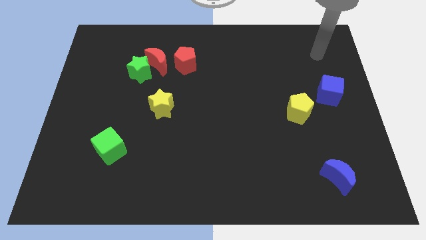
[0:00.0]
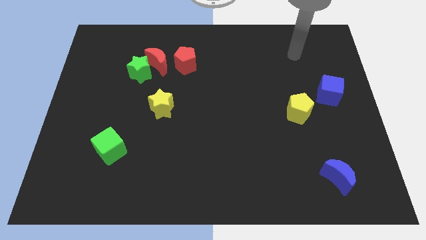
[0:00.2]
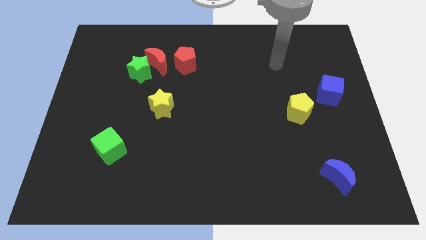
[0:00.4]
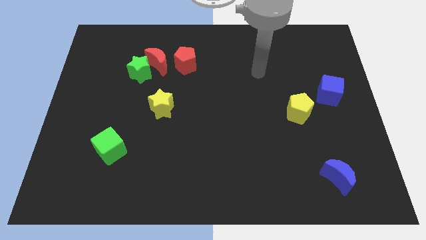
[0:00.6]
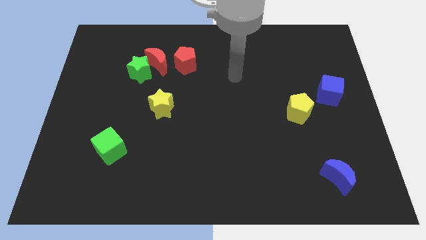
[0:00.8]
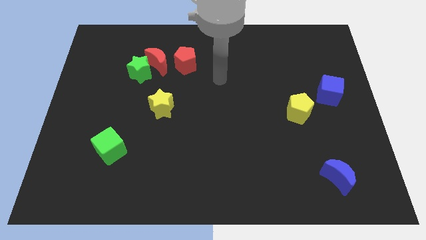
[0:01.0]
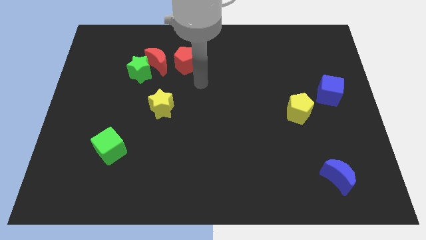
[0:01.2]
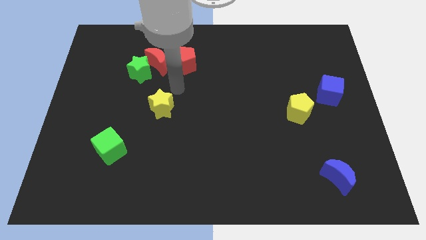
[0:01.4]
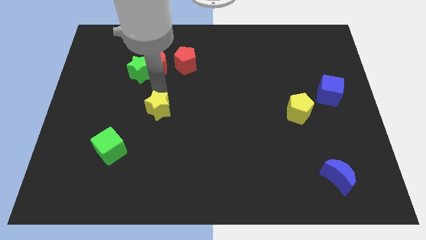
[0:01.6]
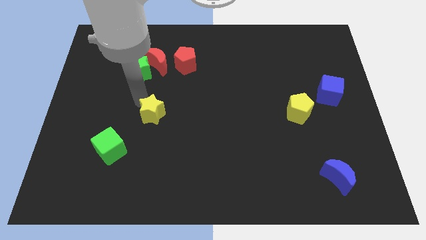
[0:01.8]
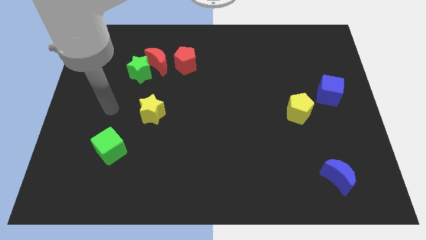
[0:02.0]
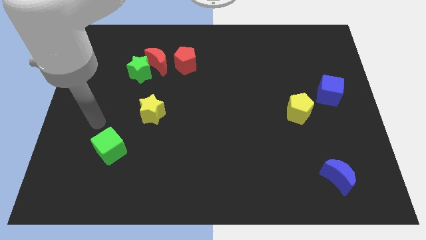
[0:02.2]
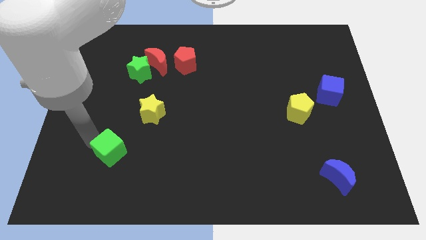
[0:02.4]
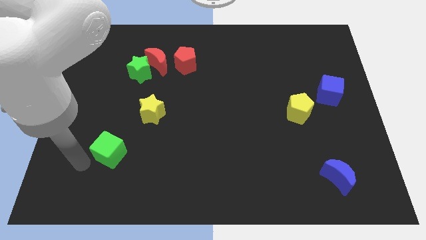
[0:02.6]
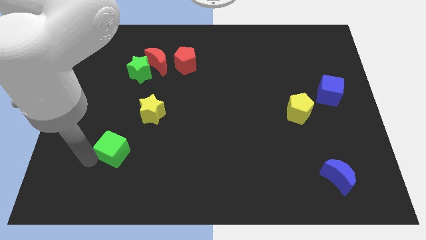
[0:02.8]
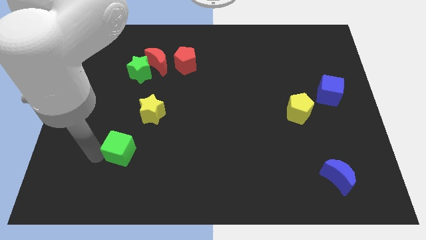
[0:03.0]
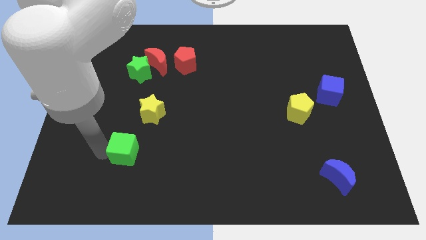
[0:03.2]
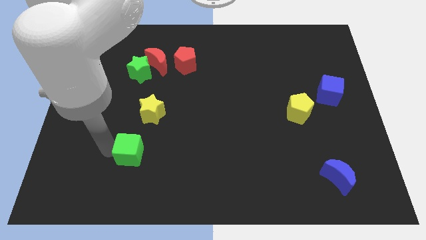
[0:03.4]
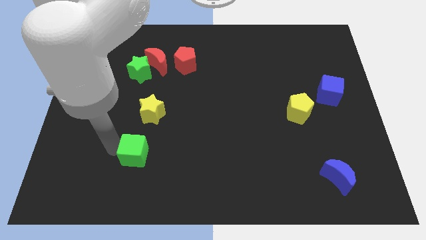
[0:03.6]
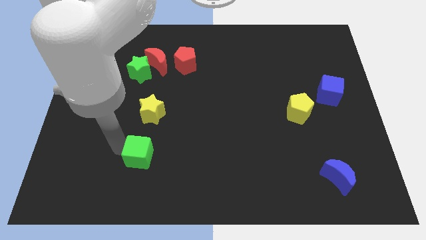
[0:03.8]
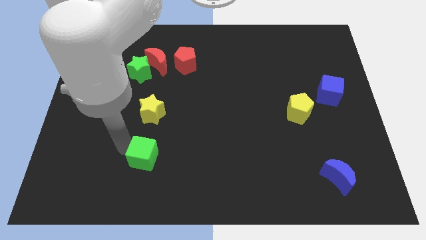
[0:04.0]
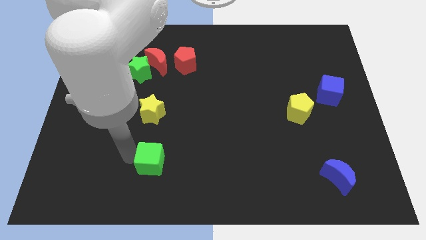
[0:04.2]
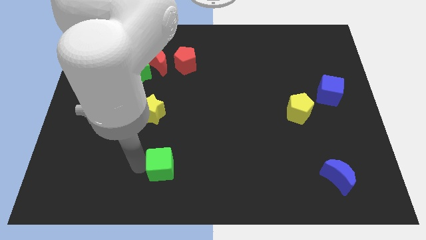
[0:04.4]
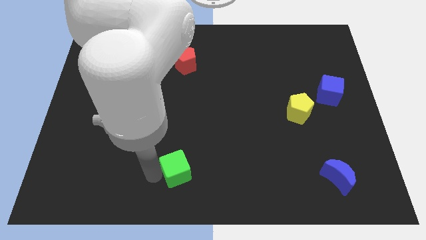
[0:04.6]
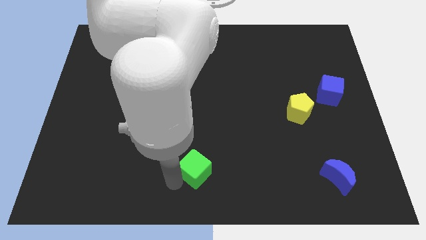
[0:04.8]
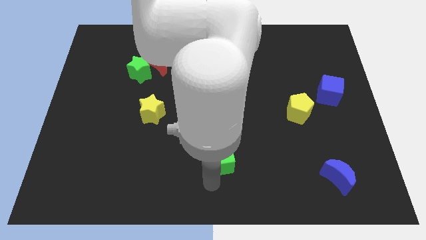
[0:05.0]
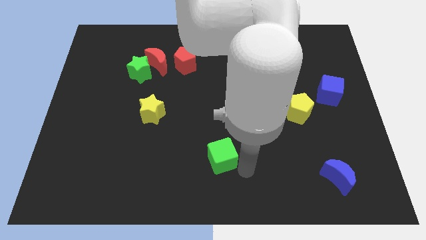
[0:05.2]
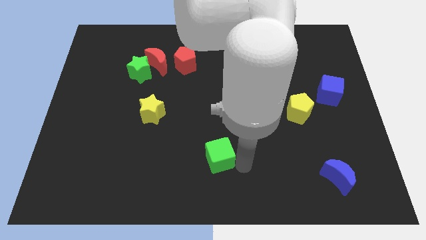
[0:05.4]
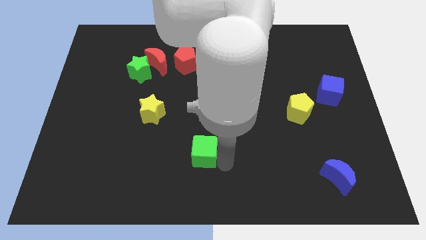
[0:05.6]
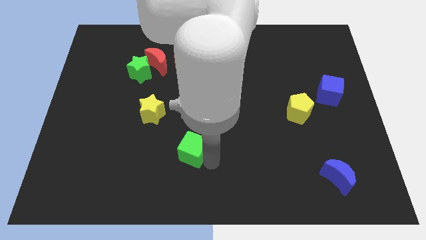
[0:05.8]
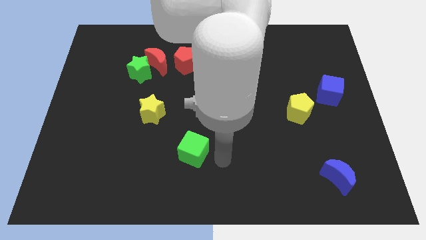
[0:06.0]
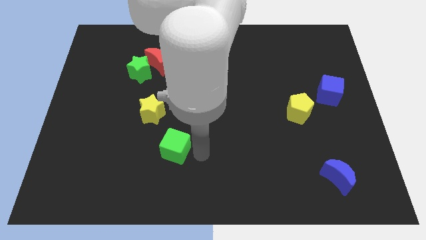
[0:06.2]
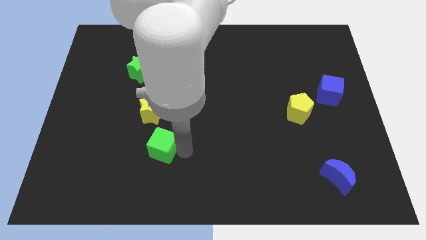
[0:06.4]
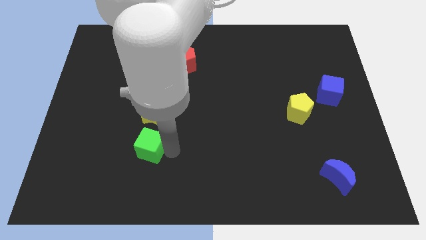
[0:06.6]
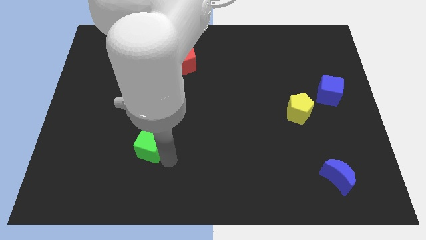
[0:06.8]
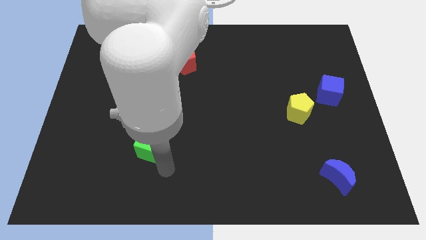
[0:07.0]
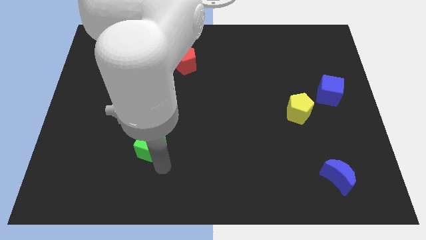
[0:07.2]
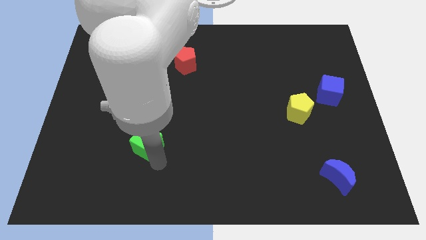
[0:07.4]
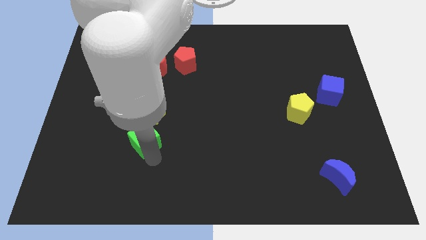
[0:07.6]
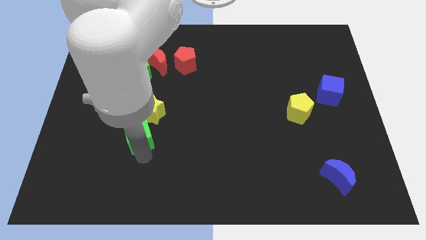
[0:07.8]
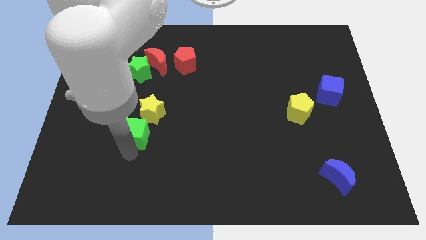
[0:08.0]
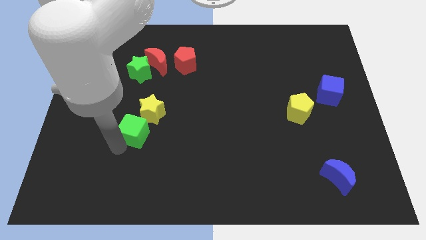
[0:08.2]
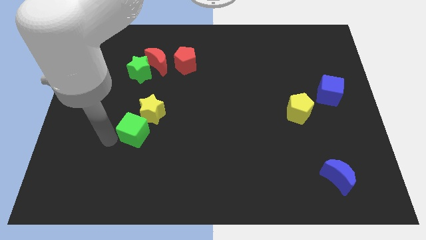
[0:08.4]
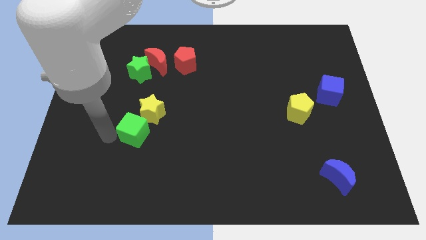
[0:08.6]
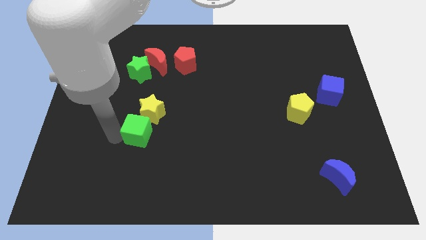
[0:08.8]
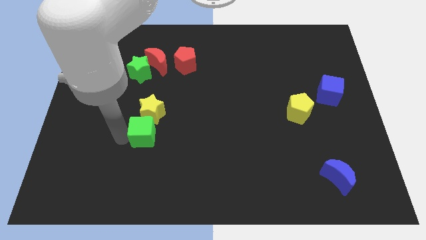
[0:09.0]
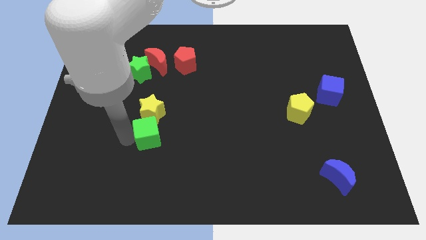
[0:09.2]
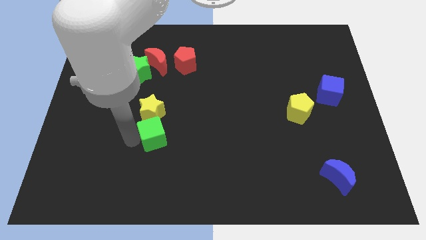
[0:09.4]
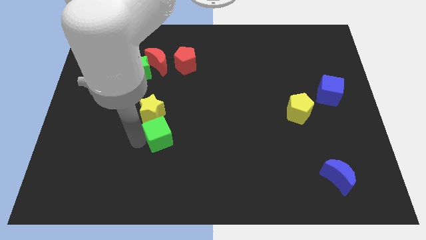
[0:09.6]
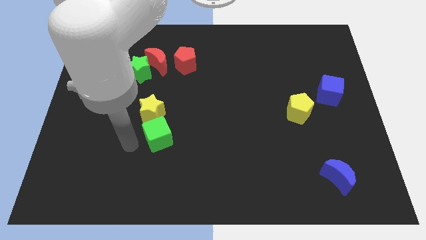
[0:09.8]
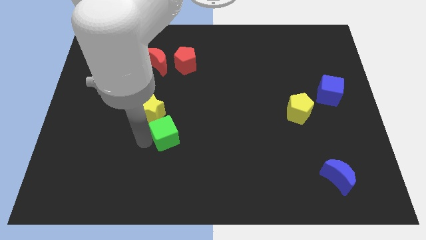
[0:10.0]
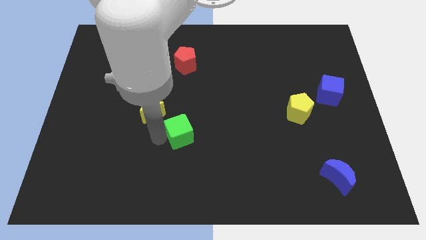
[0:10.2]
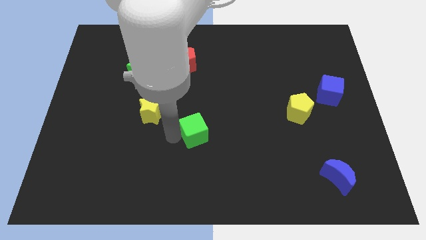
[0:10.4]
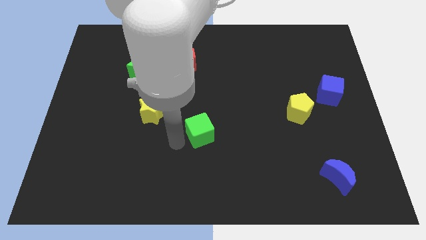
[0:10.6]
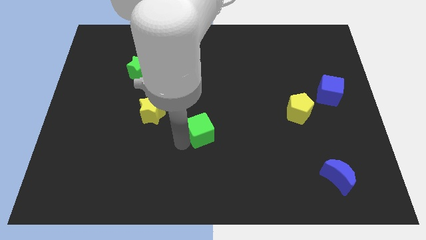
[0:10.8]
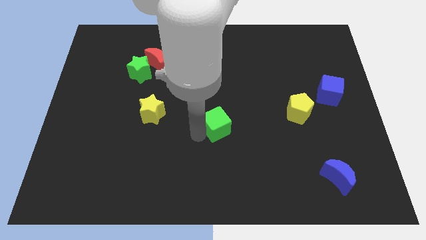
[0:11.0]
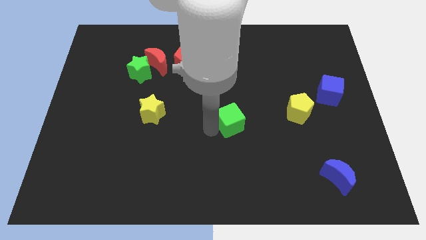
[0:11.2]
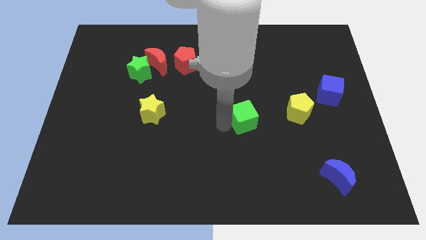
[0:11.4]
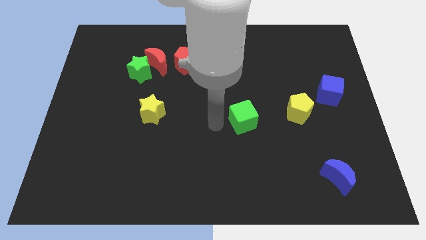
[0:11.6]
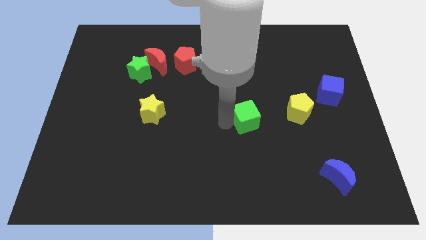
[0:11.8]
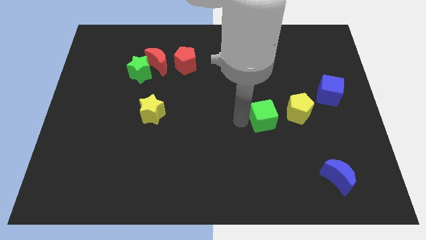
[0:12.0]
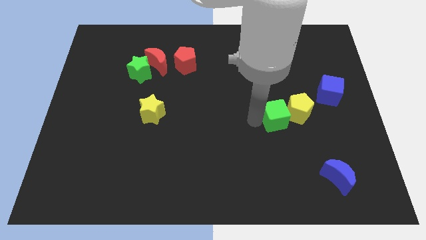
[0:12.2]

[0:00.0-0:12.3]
push the green cube close to the yellow pentagon

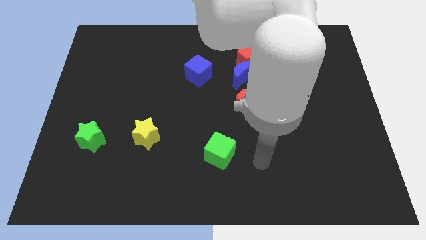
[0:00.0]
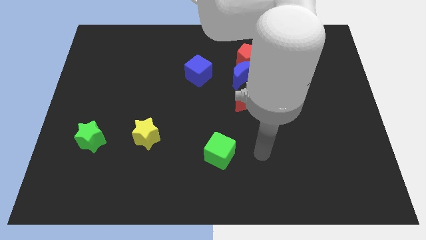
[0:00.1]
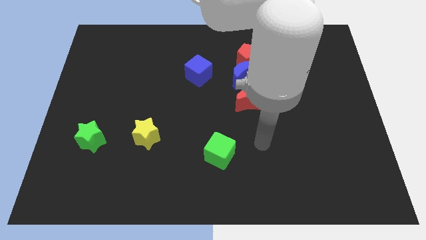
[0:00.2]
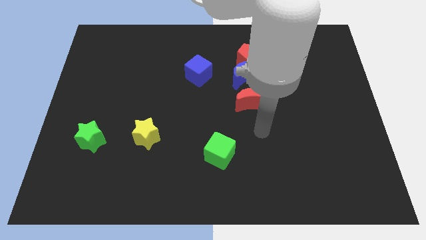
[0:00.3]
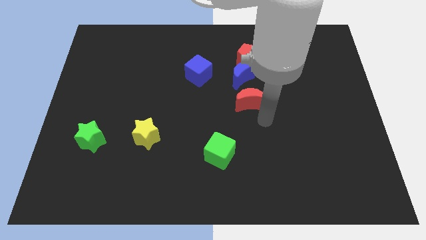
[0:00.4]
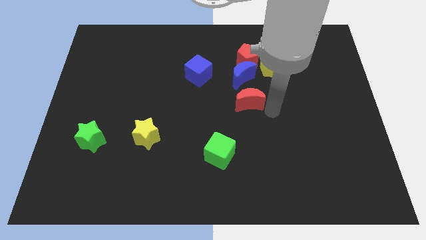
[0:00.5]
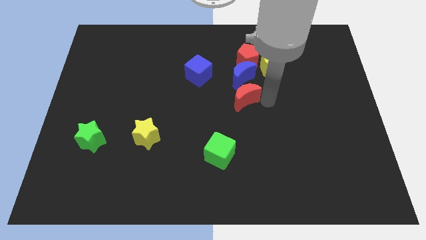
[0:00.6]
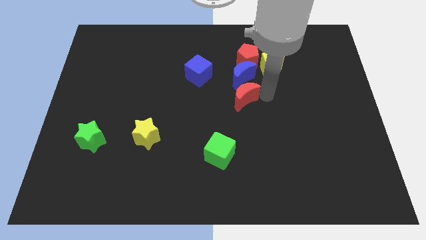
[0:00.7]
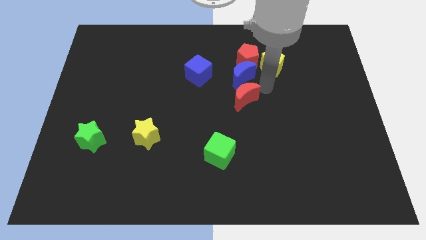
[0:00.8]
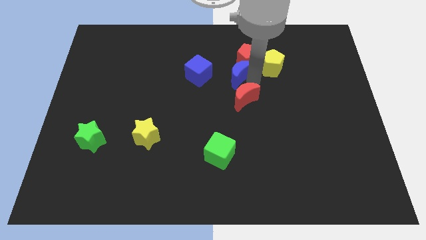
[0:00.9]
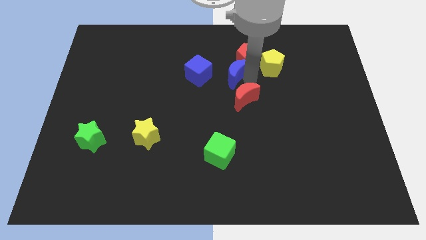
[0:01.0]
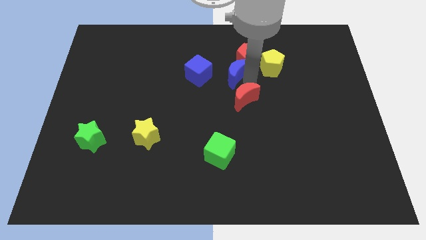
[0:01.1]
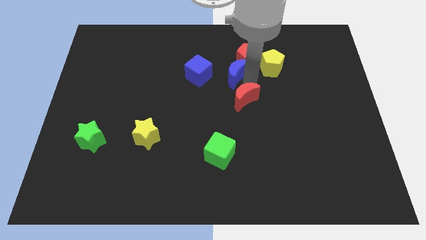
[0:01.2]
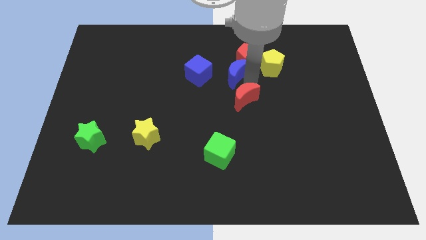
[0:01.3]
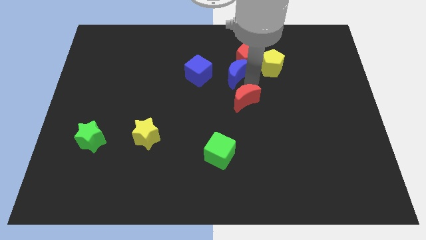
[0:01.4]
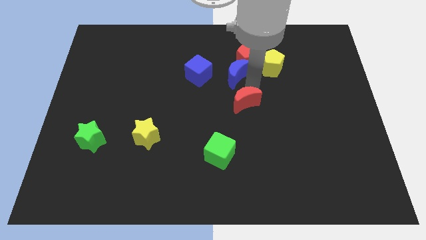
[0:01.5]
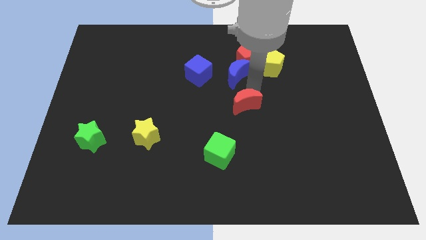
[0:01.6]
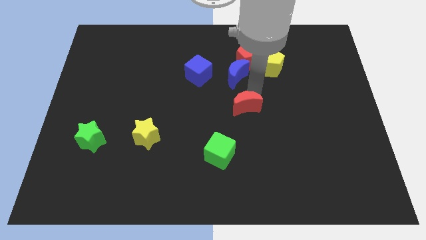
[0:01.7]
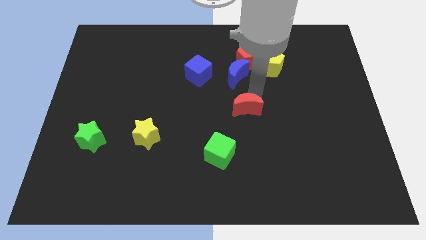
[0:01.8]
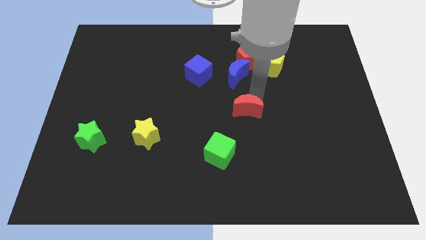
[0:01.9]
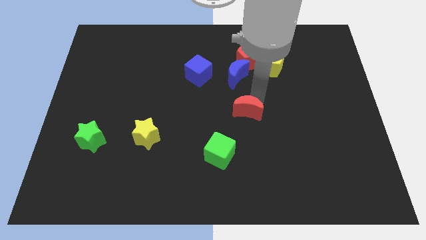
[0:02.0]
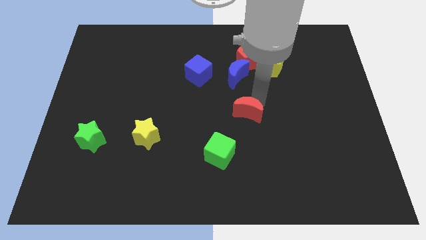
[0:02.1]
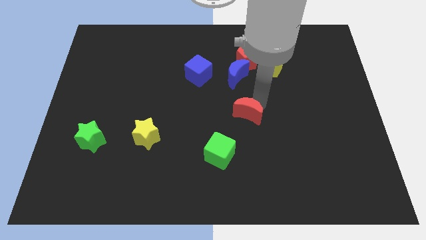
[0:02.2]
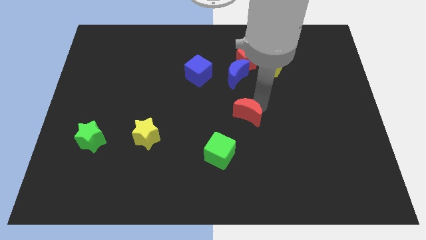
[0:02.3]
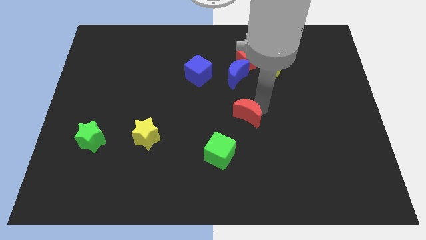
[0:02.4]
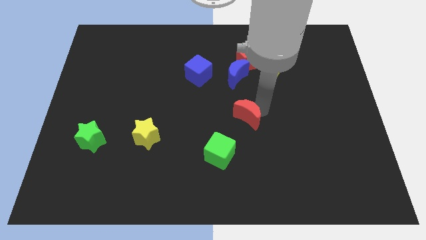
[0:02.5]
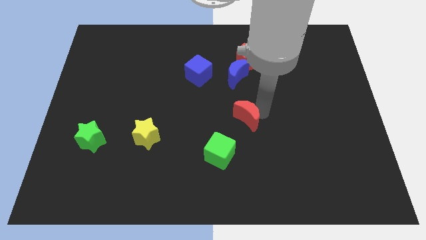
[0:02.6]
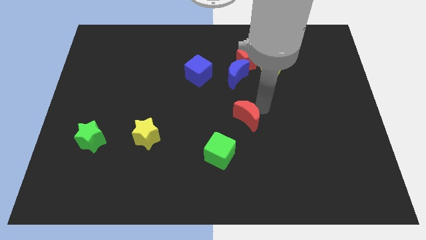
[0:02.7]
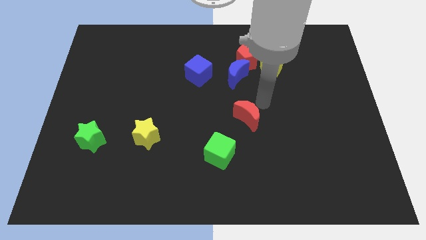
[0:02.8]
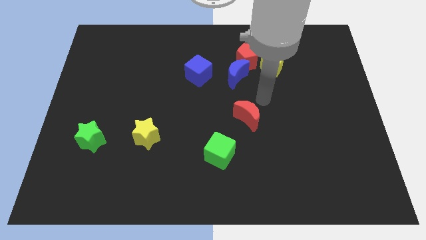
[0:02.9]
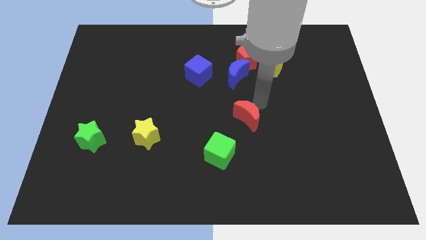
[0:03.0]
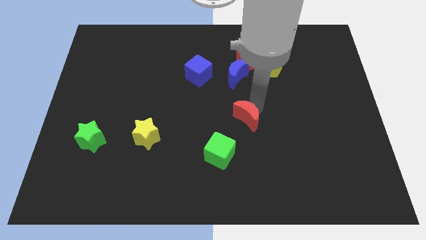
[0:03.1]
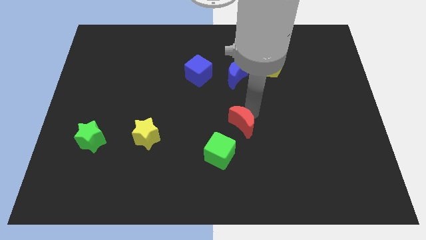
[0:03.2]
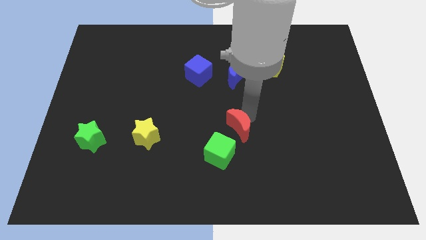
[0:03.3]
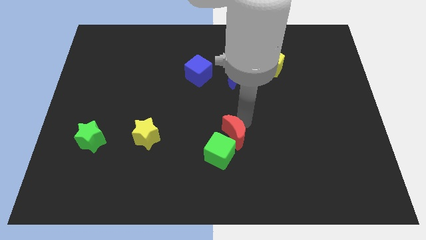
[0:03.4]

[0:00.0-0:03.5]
put the red moon to the green cube
